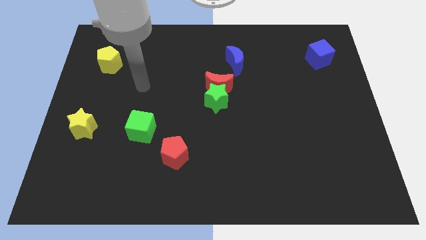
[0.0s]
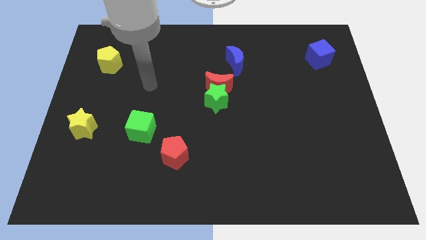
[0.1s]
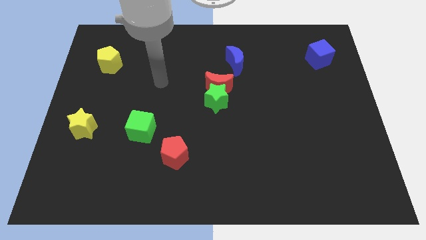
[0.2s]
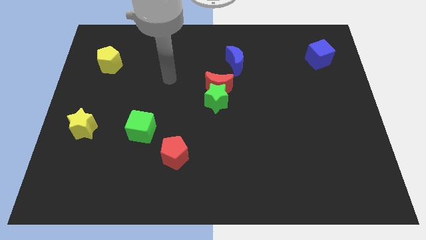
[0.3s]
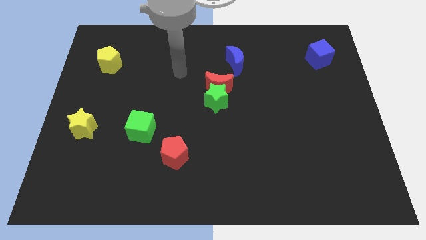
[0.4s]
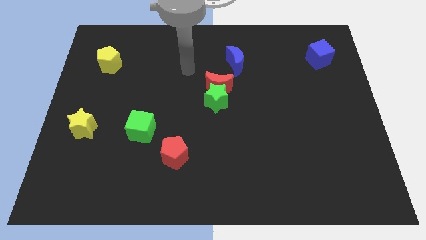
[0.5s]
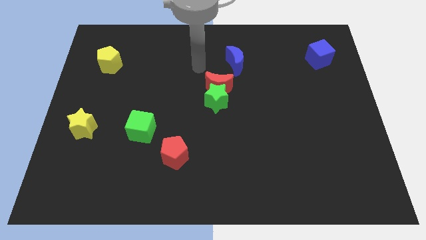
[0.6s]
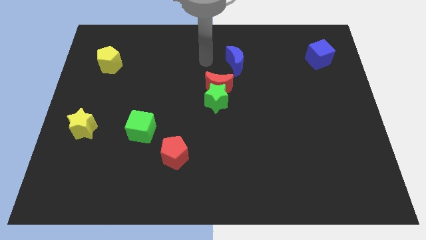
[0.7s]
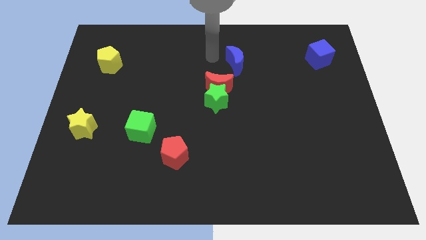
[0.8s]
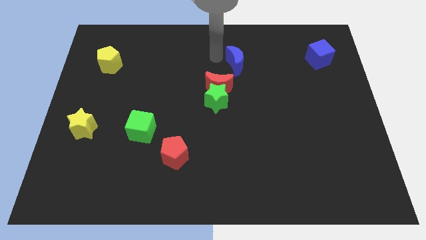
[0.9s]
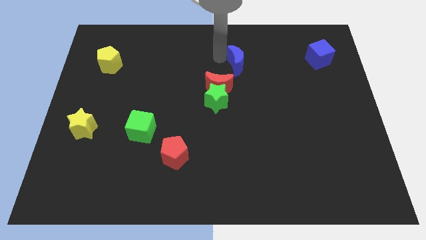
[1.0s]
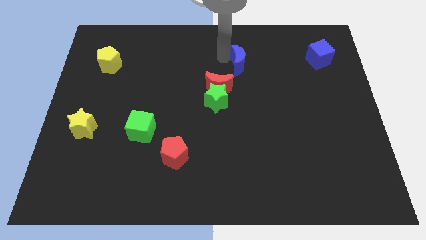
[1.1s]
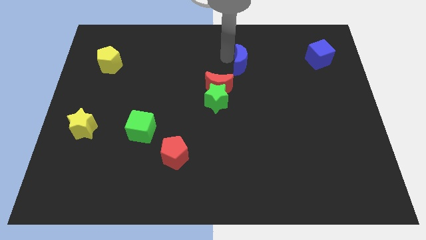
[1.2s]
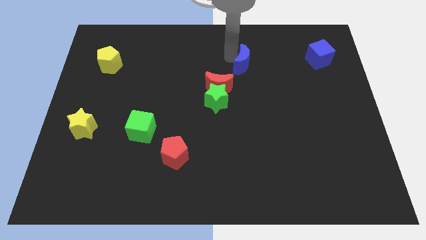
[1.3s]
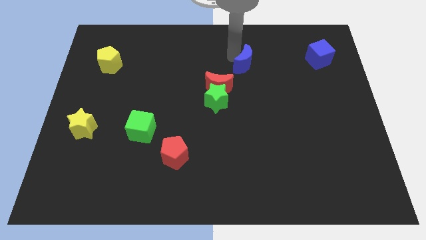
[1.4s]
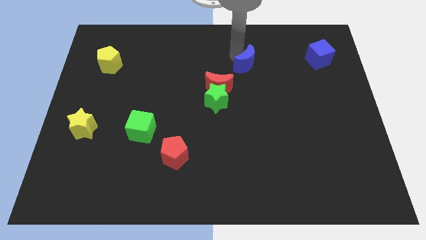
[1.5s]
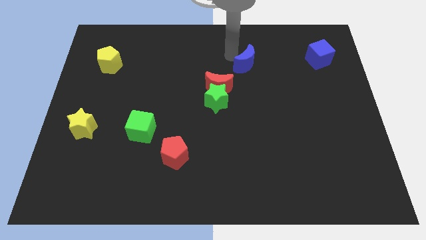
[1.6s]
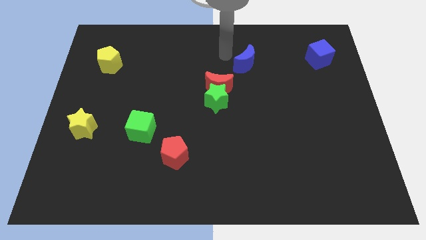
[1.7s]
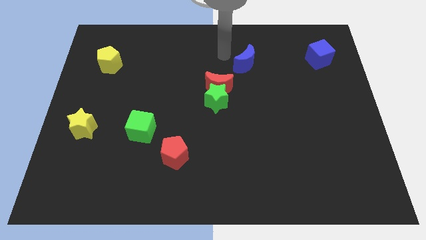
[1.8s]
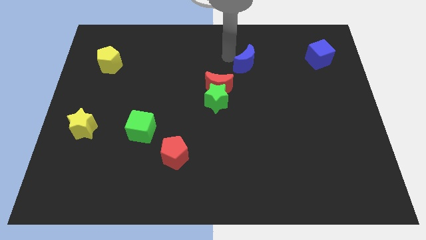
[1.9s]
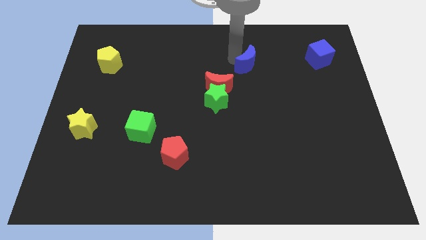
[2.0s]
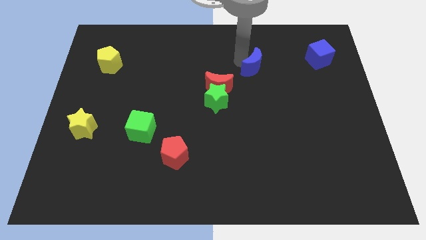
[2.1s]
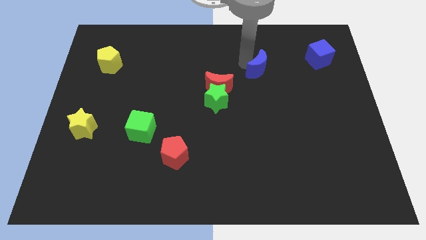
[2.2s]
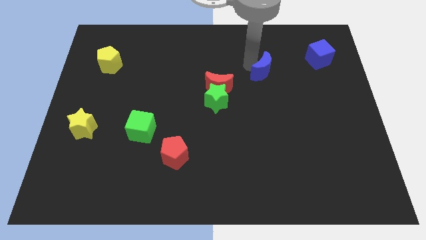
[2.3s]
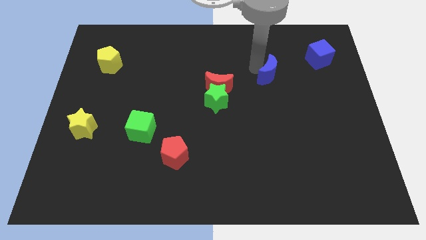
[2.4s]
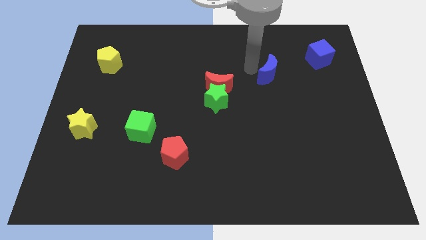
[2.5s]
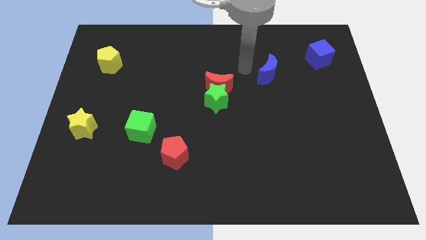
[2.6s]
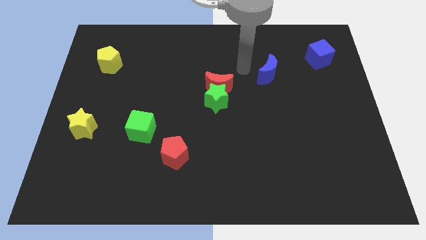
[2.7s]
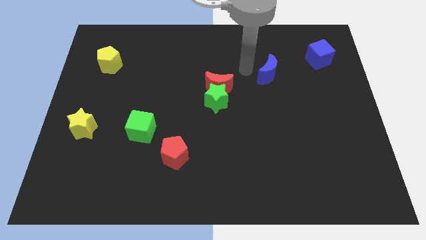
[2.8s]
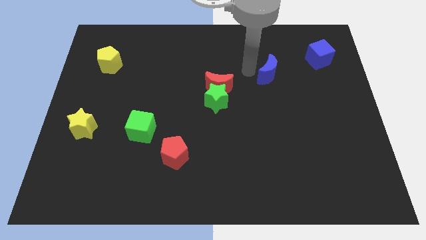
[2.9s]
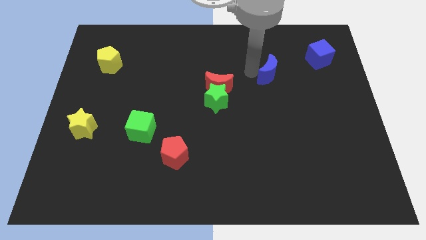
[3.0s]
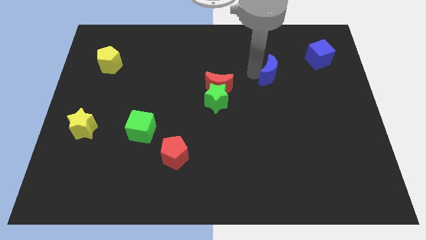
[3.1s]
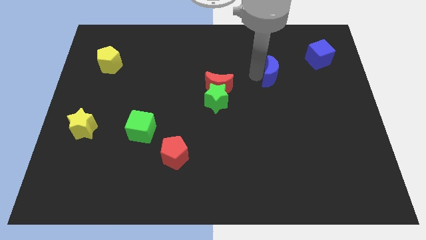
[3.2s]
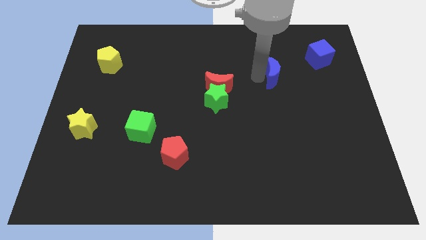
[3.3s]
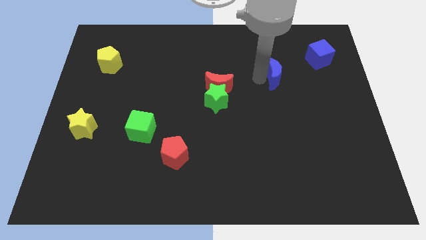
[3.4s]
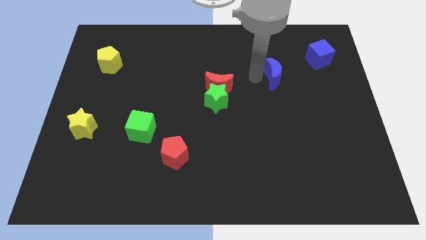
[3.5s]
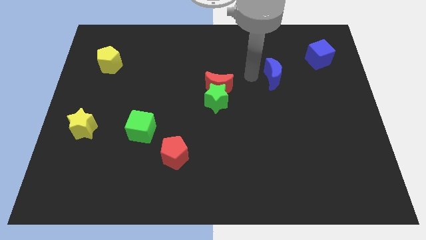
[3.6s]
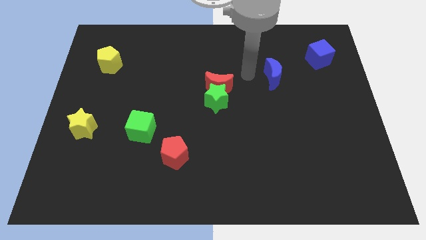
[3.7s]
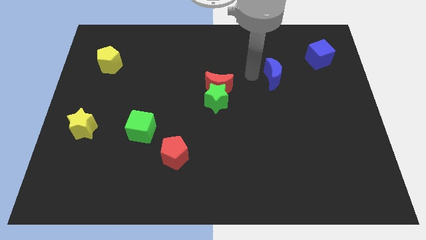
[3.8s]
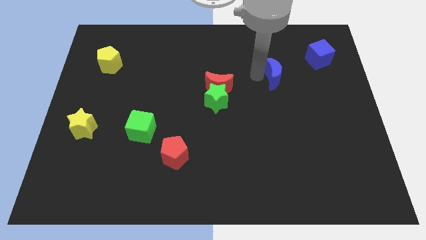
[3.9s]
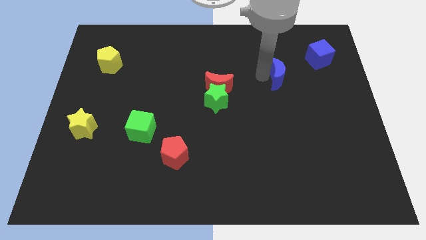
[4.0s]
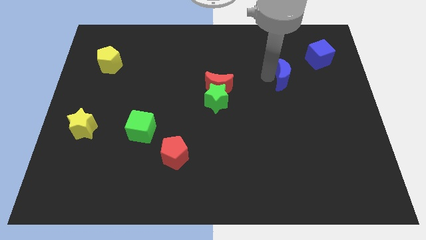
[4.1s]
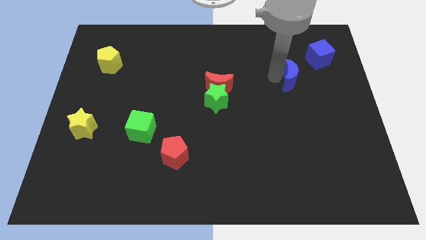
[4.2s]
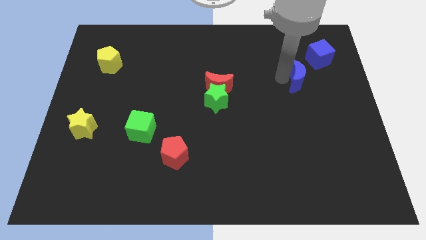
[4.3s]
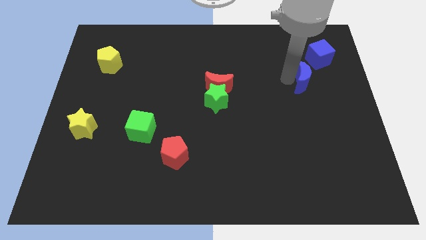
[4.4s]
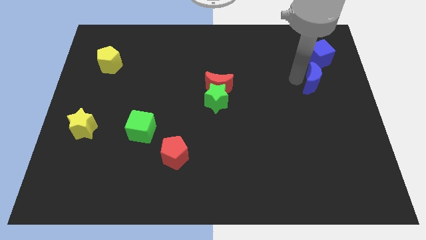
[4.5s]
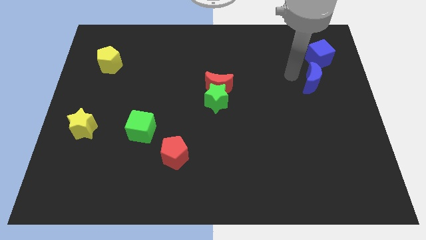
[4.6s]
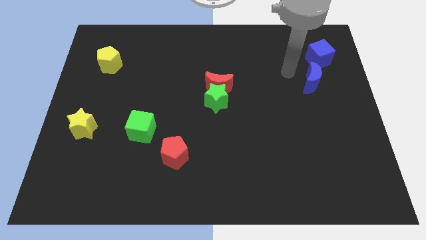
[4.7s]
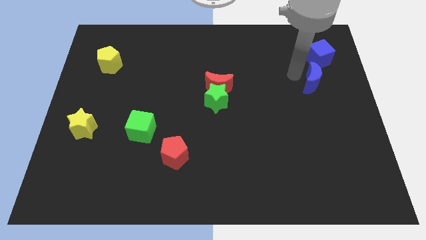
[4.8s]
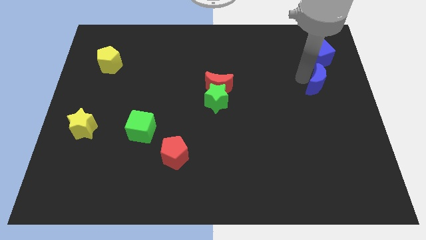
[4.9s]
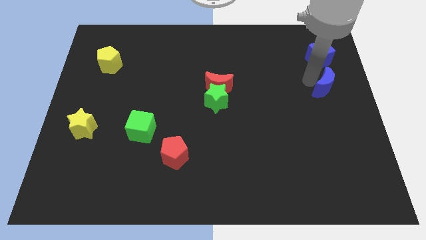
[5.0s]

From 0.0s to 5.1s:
put the blue moon to the center right

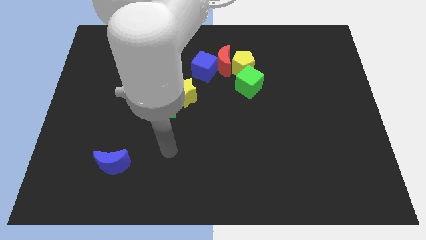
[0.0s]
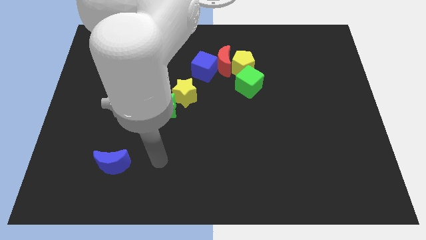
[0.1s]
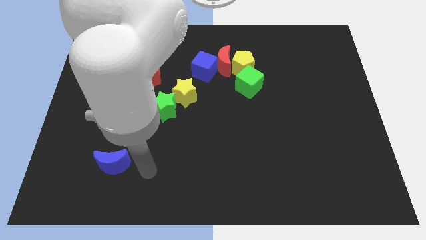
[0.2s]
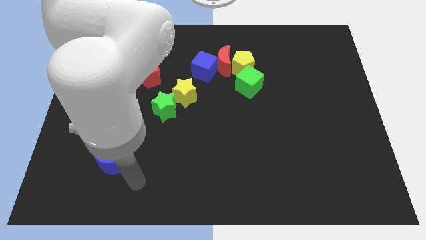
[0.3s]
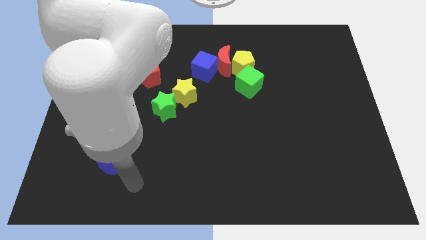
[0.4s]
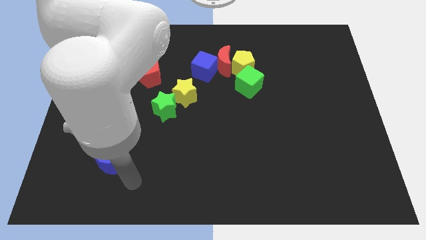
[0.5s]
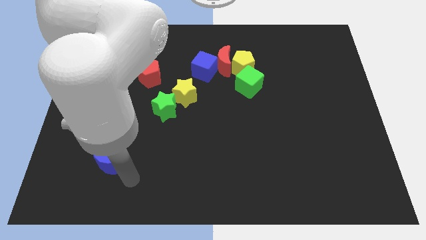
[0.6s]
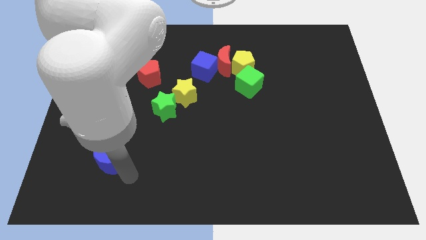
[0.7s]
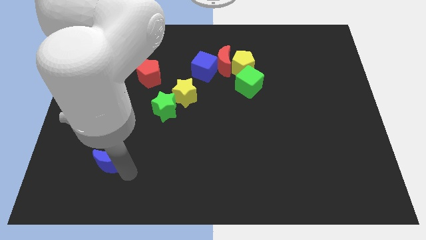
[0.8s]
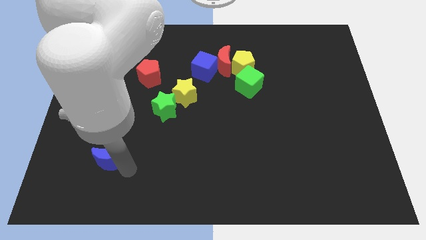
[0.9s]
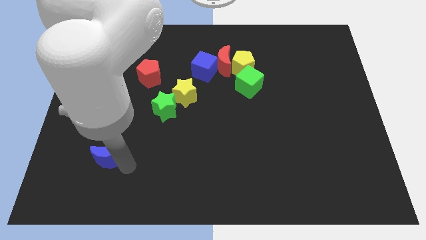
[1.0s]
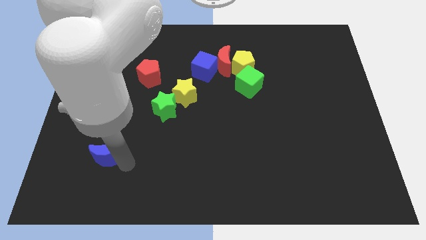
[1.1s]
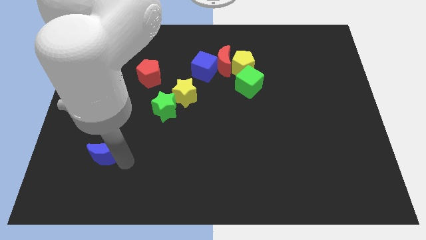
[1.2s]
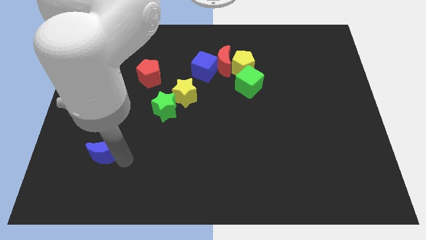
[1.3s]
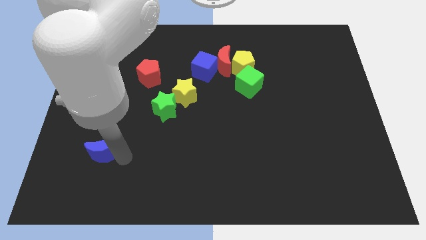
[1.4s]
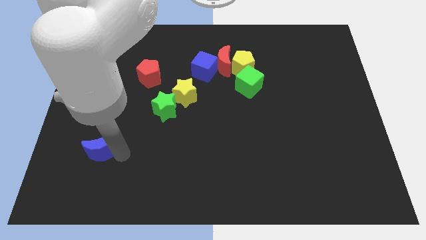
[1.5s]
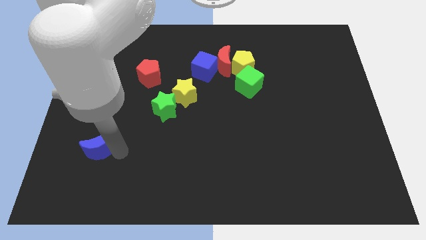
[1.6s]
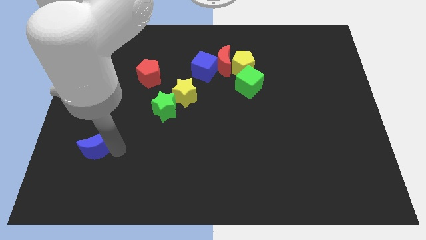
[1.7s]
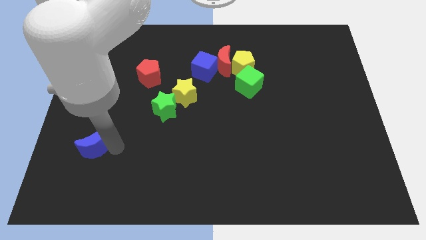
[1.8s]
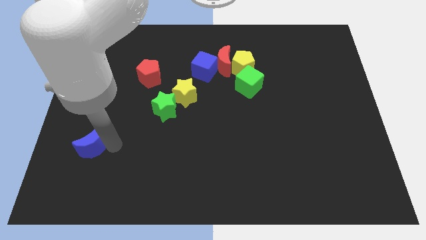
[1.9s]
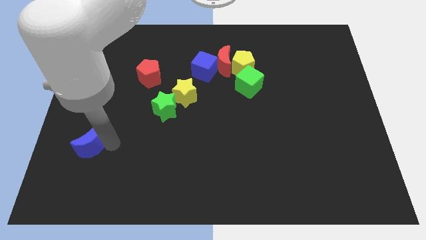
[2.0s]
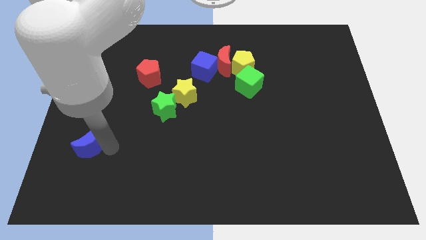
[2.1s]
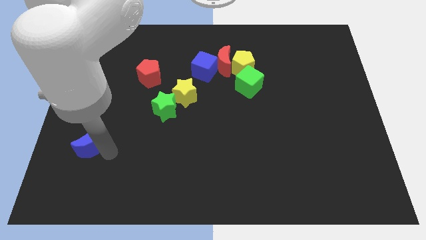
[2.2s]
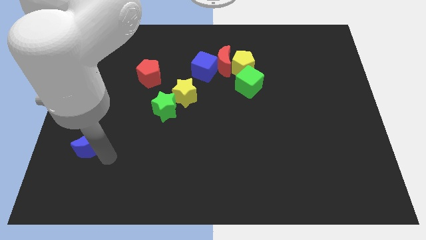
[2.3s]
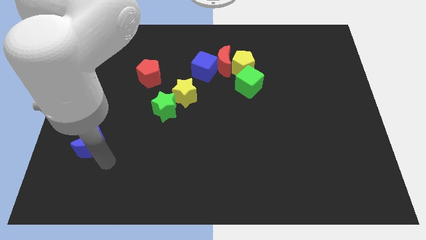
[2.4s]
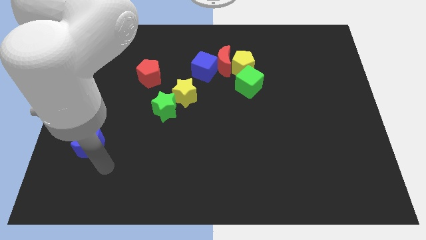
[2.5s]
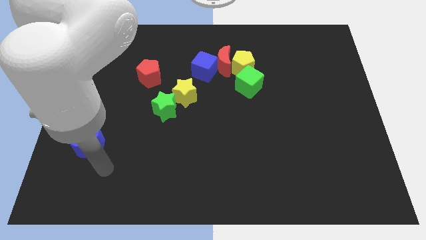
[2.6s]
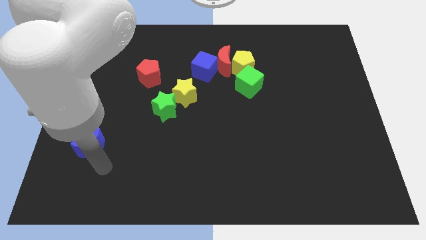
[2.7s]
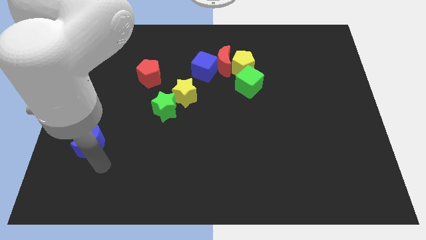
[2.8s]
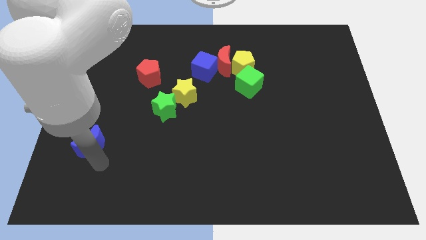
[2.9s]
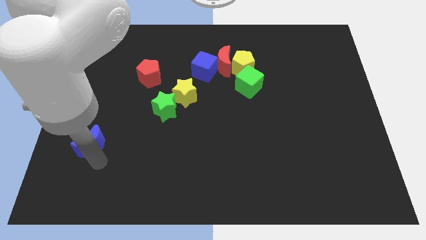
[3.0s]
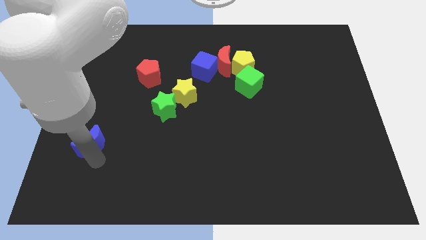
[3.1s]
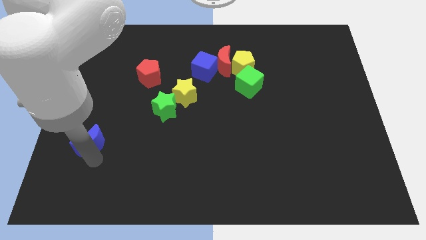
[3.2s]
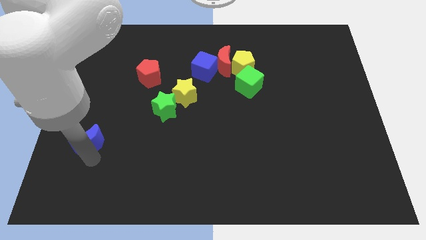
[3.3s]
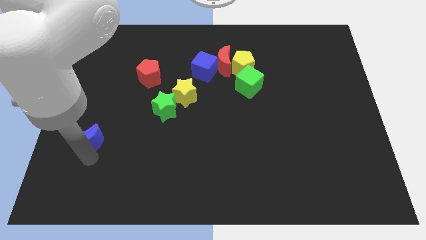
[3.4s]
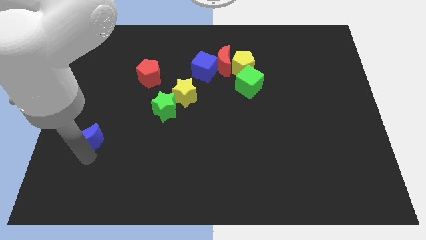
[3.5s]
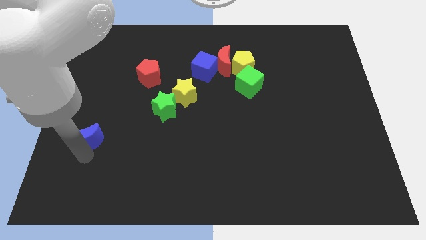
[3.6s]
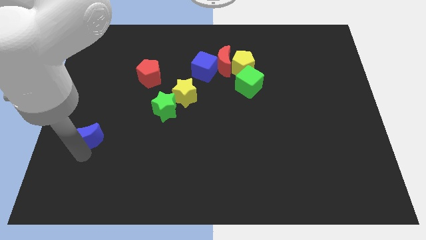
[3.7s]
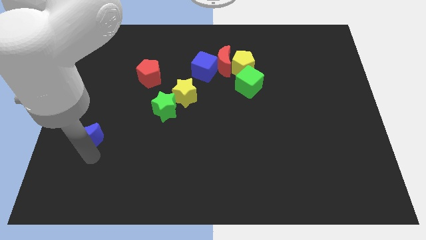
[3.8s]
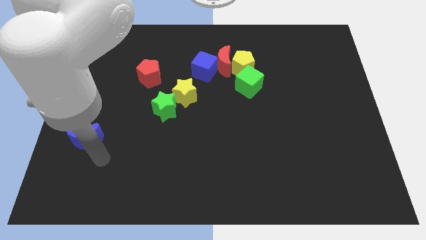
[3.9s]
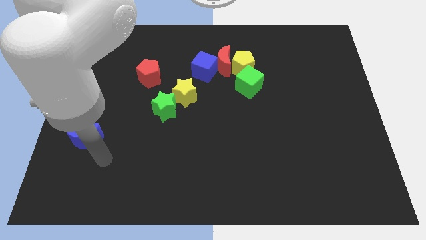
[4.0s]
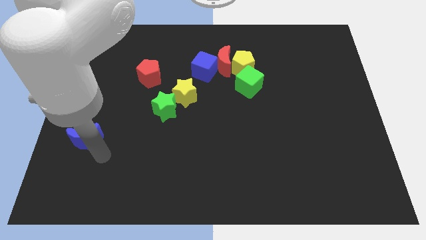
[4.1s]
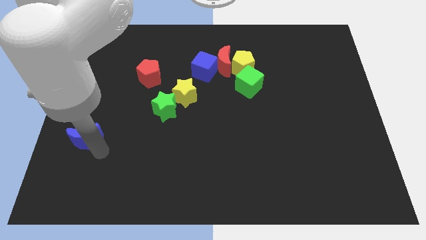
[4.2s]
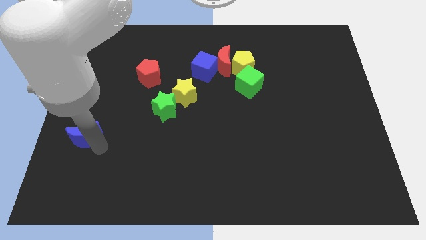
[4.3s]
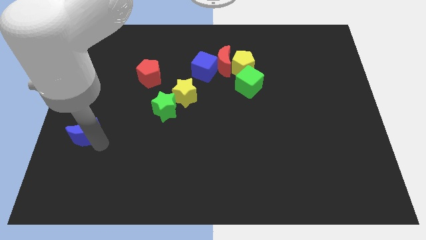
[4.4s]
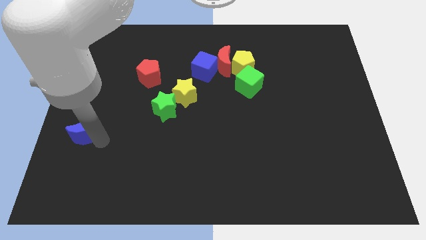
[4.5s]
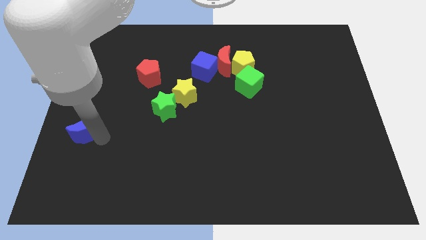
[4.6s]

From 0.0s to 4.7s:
move the blue moon to the left side
